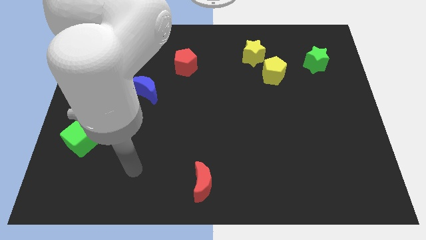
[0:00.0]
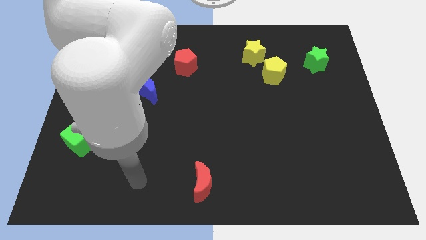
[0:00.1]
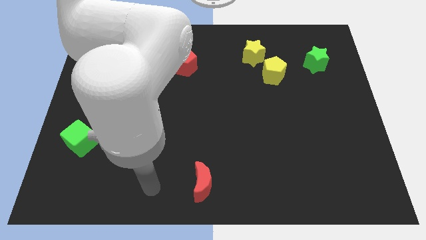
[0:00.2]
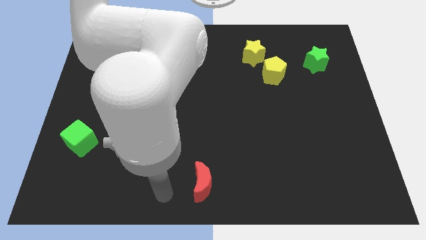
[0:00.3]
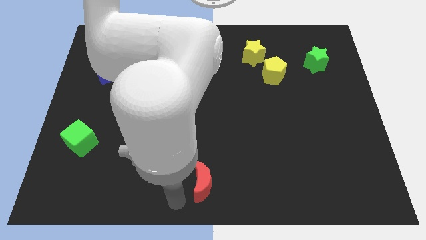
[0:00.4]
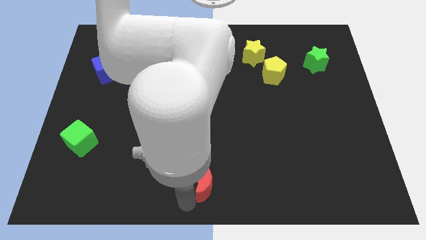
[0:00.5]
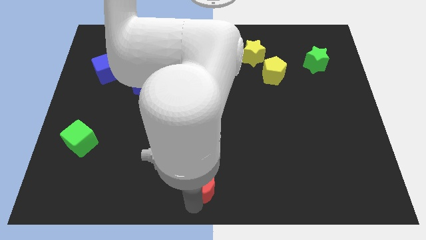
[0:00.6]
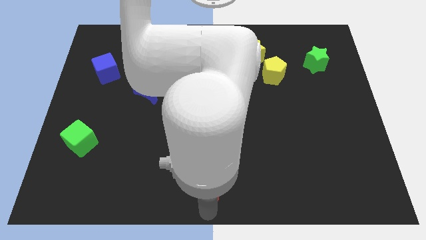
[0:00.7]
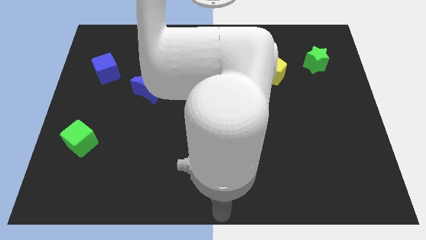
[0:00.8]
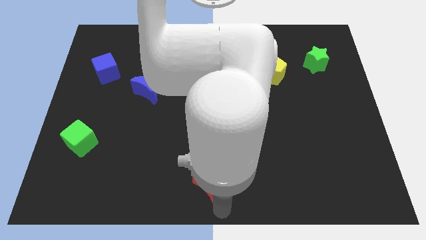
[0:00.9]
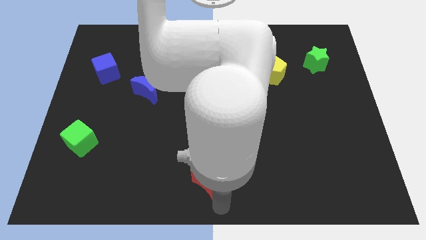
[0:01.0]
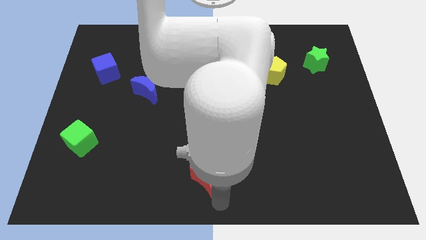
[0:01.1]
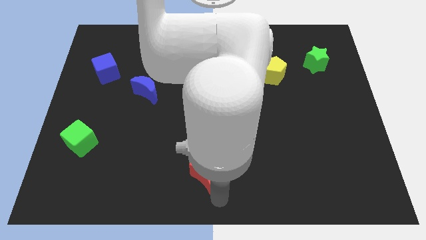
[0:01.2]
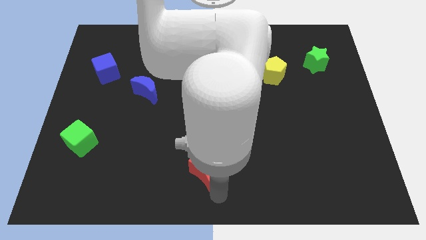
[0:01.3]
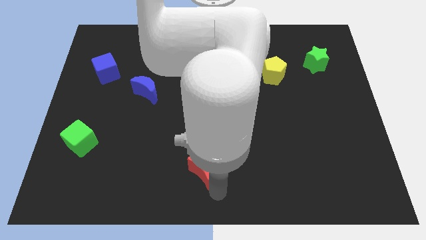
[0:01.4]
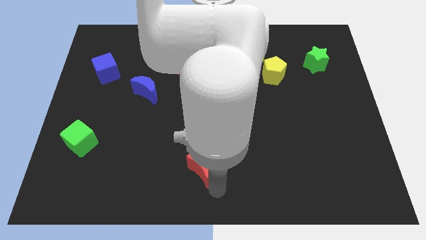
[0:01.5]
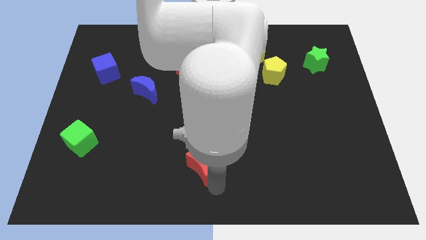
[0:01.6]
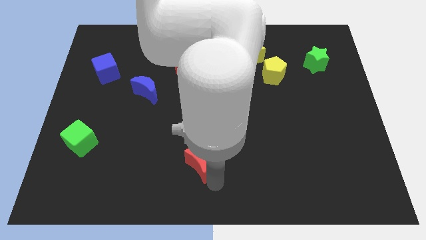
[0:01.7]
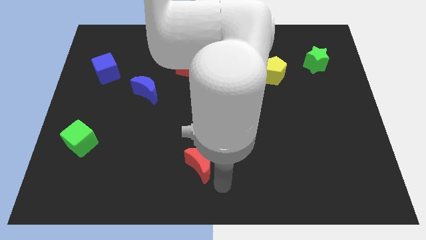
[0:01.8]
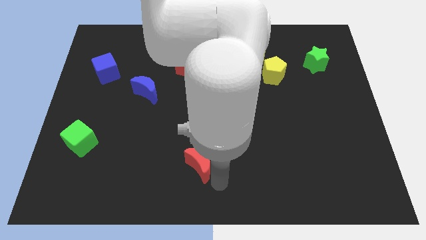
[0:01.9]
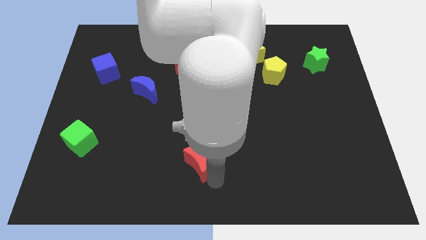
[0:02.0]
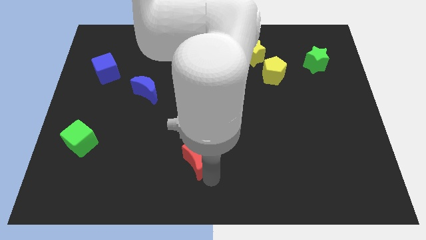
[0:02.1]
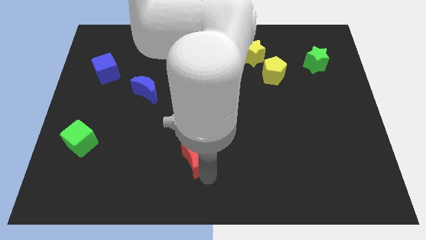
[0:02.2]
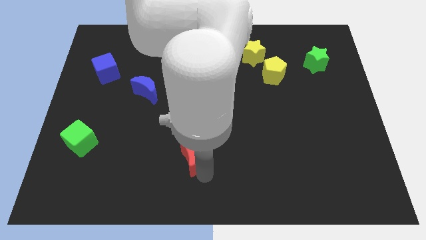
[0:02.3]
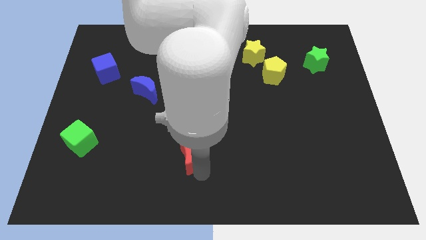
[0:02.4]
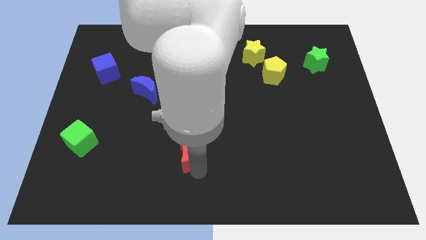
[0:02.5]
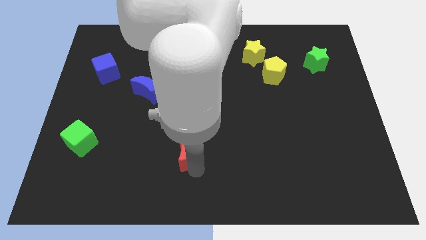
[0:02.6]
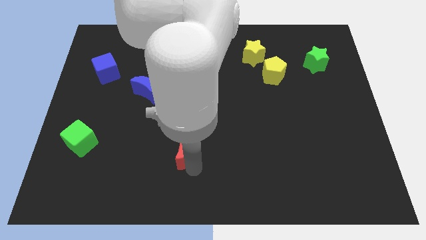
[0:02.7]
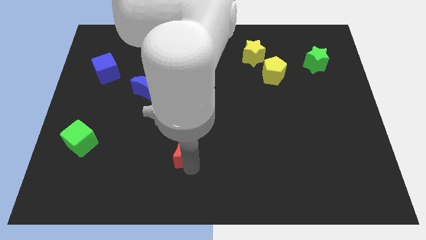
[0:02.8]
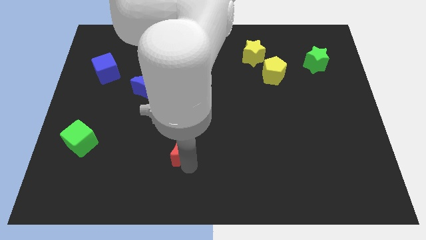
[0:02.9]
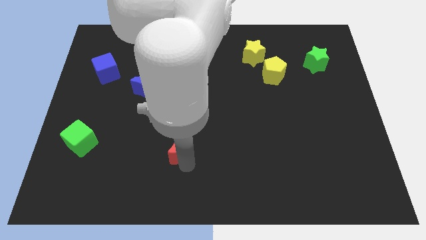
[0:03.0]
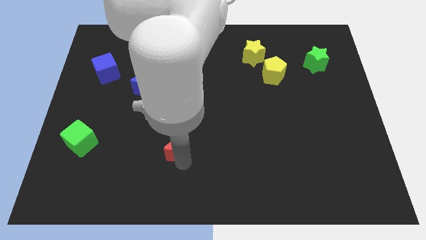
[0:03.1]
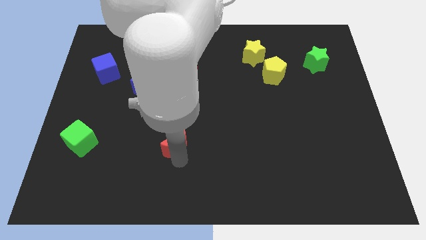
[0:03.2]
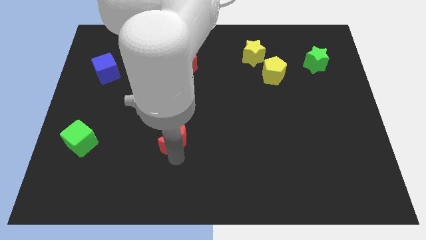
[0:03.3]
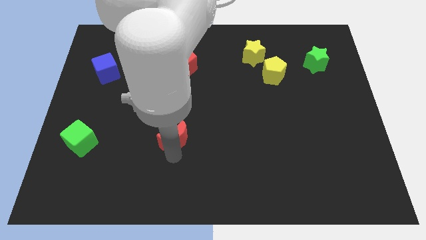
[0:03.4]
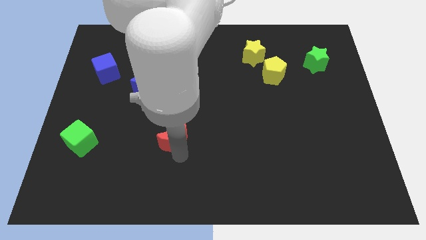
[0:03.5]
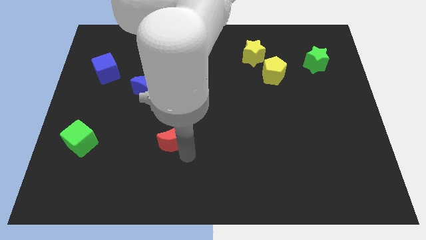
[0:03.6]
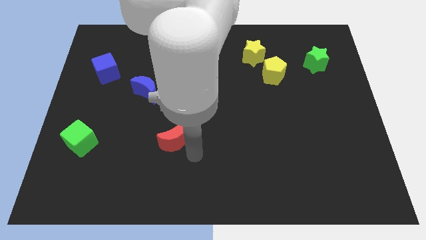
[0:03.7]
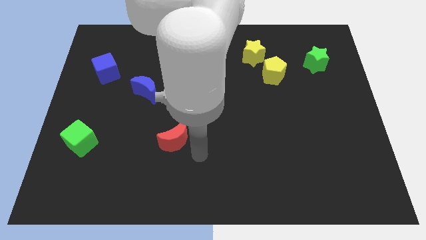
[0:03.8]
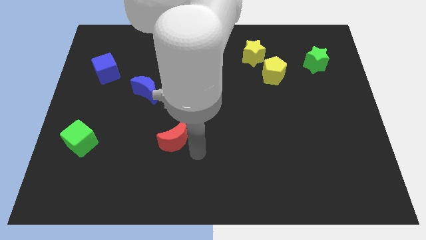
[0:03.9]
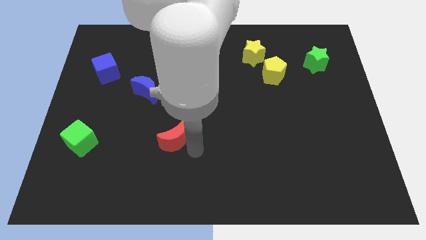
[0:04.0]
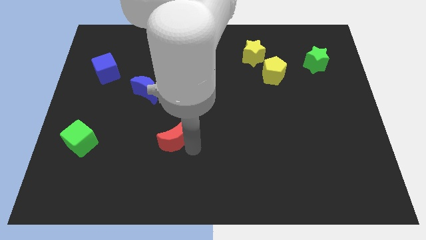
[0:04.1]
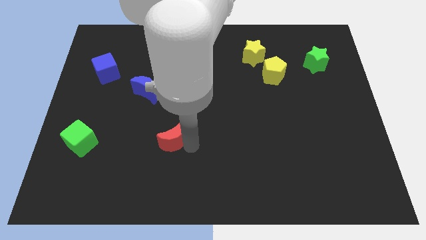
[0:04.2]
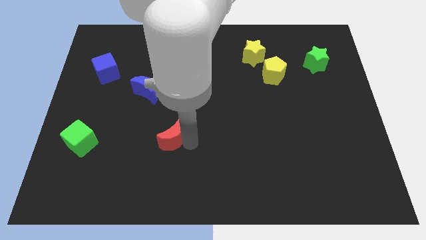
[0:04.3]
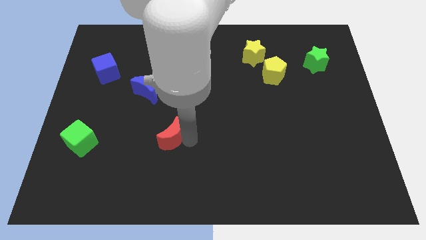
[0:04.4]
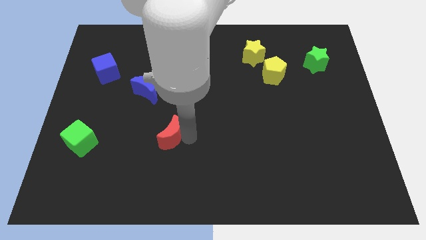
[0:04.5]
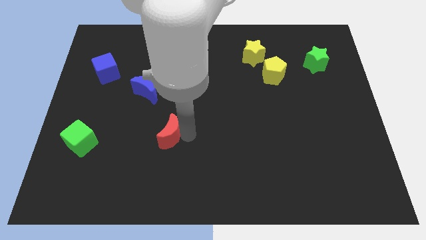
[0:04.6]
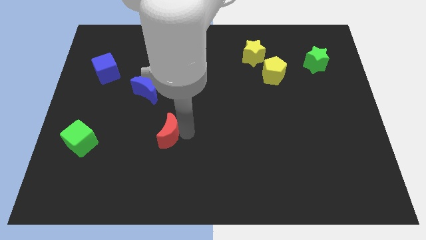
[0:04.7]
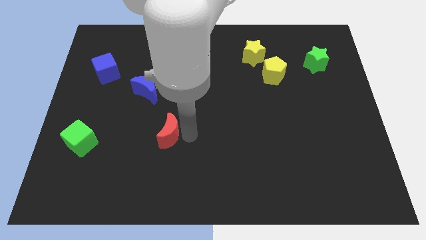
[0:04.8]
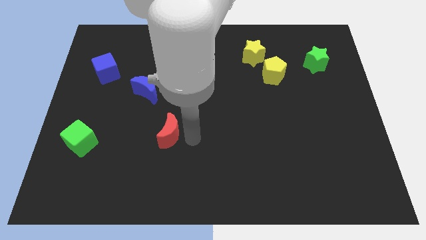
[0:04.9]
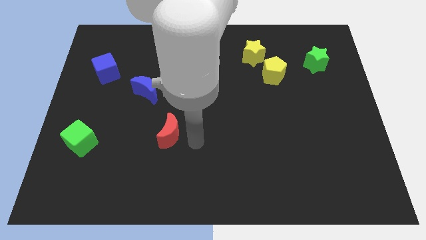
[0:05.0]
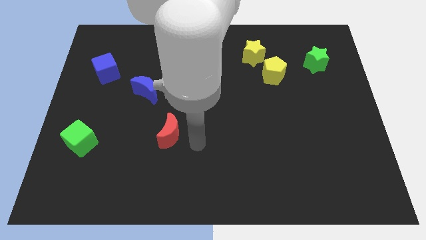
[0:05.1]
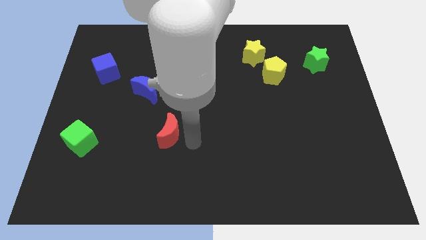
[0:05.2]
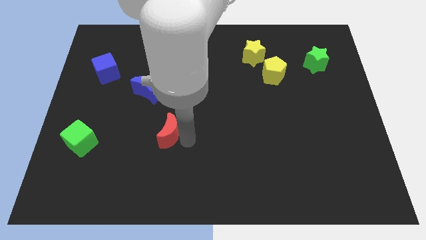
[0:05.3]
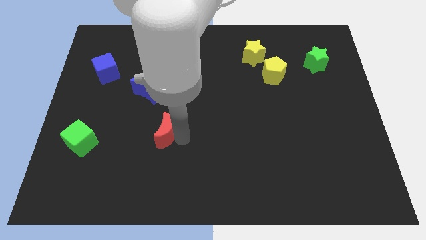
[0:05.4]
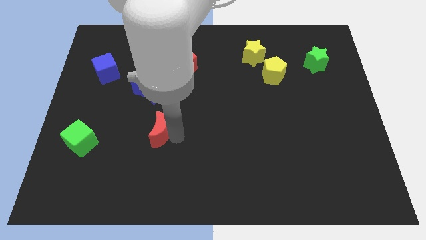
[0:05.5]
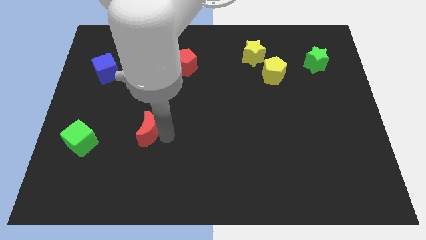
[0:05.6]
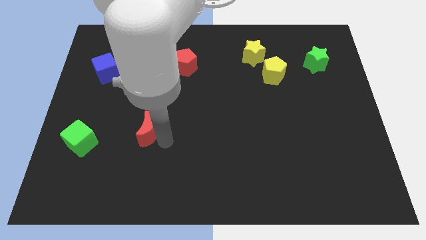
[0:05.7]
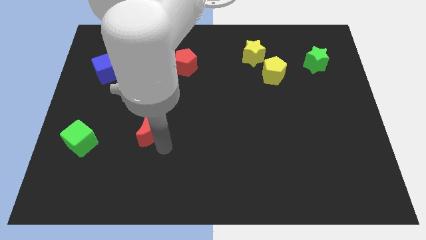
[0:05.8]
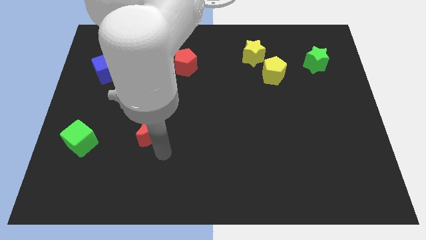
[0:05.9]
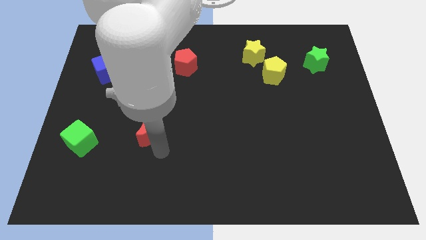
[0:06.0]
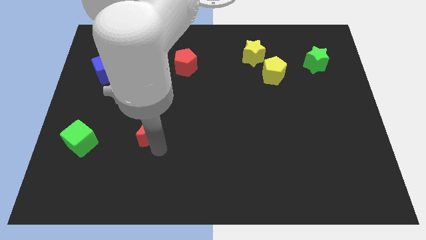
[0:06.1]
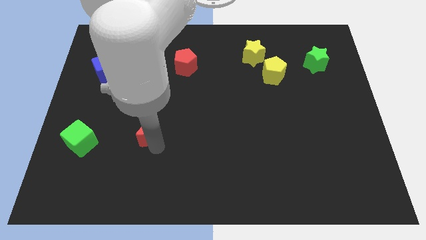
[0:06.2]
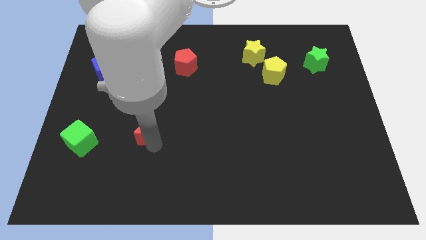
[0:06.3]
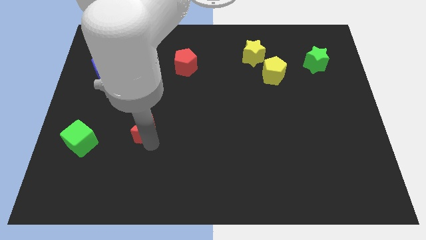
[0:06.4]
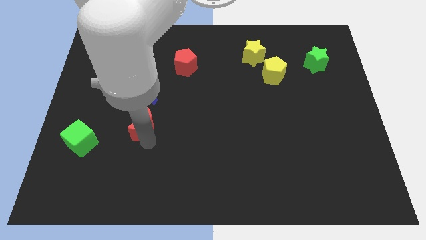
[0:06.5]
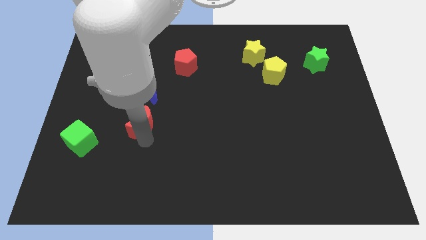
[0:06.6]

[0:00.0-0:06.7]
slide the red moon upwards and left diagonally

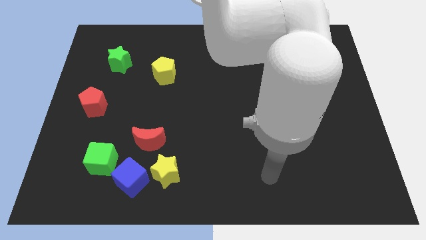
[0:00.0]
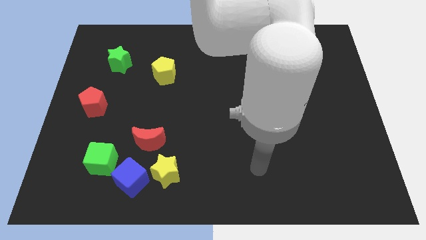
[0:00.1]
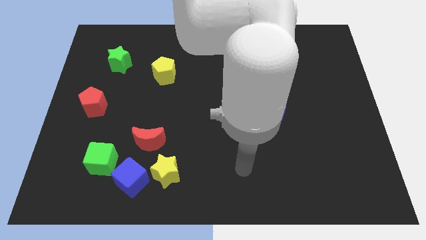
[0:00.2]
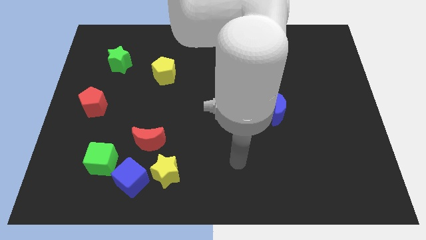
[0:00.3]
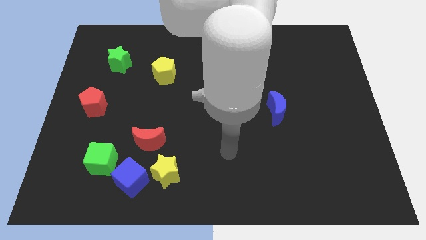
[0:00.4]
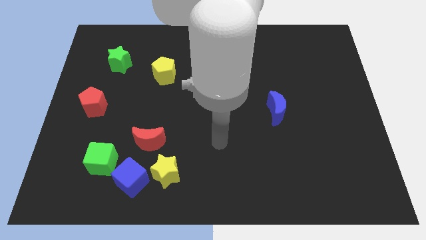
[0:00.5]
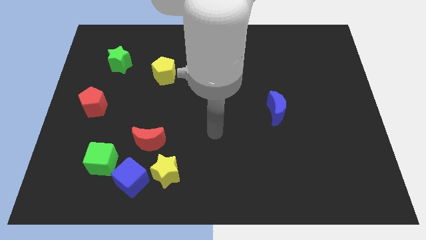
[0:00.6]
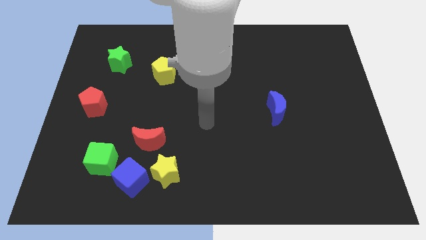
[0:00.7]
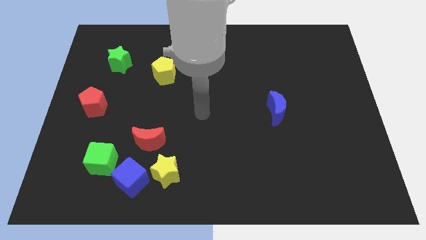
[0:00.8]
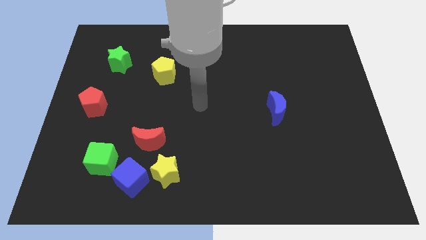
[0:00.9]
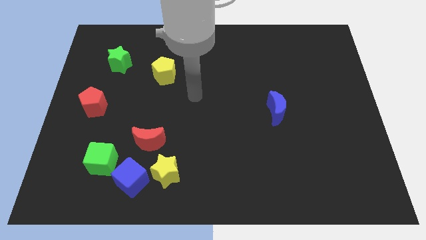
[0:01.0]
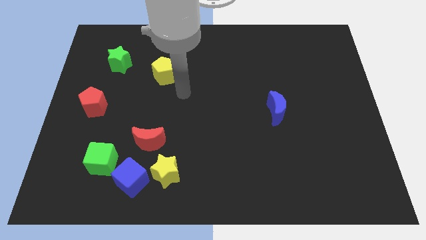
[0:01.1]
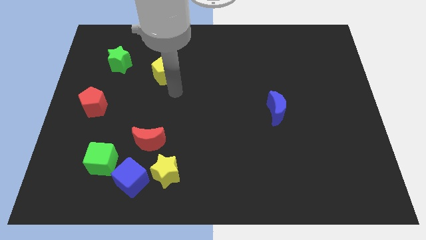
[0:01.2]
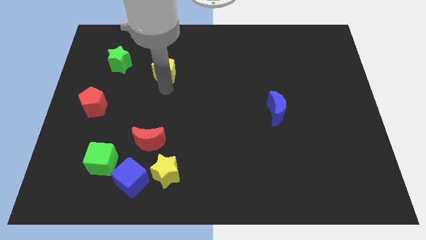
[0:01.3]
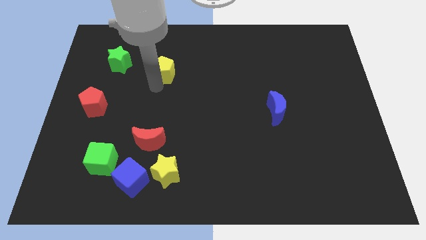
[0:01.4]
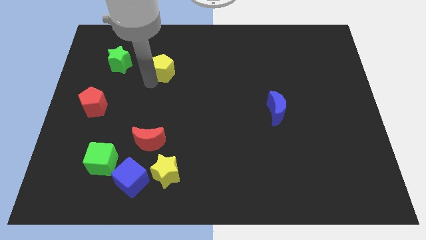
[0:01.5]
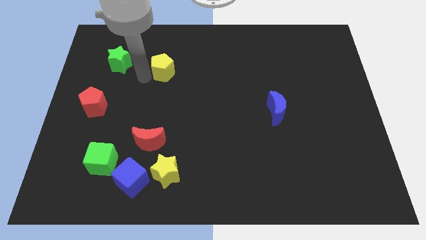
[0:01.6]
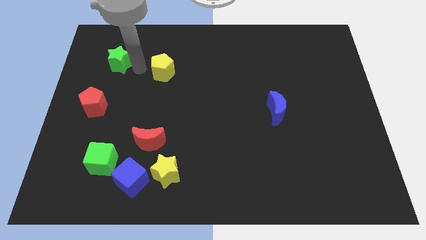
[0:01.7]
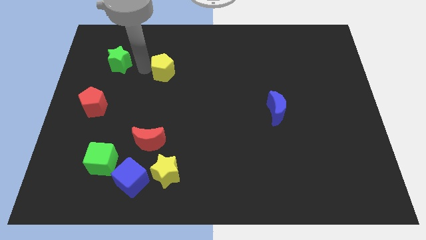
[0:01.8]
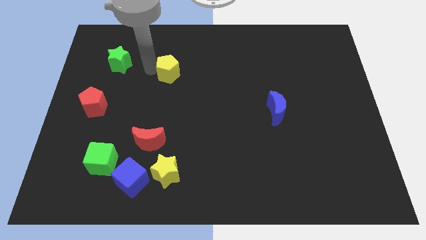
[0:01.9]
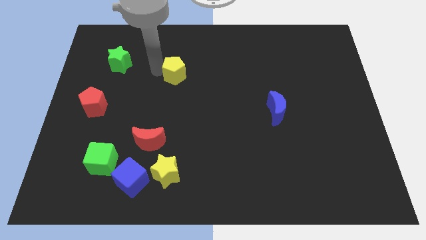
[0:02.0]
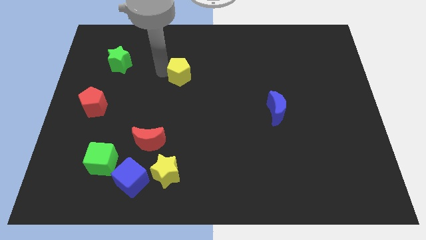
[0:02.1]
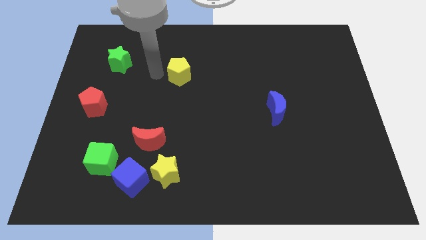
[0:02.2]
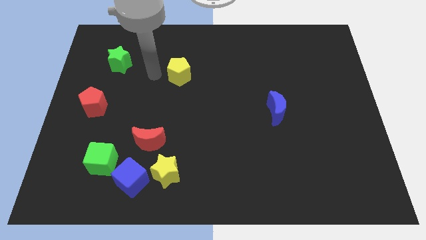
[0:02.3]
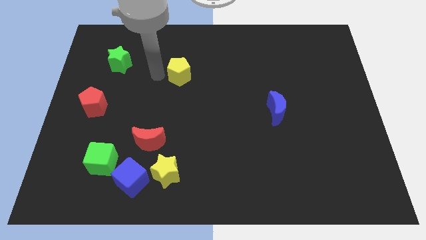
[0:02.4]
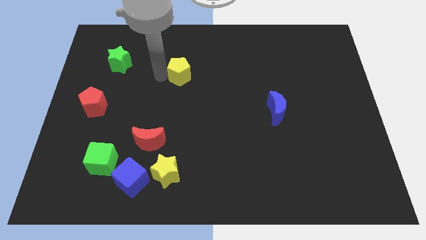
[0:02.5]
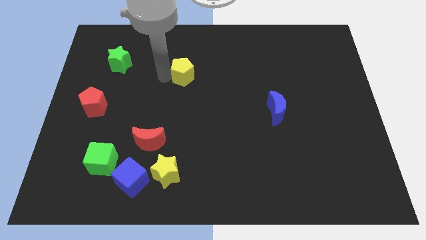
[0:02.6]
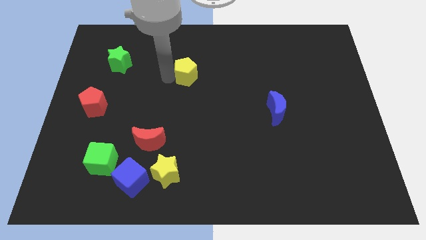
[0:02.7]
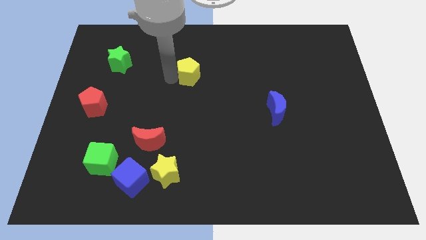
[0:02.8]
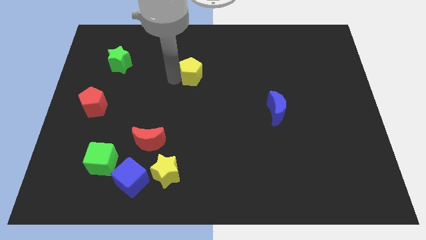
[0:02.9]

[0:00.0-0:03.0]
move the yellow pentagon a little to the right
